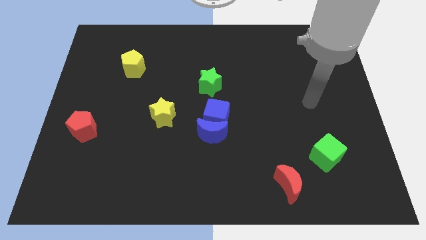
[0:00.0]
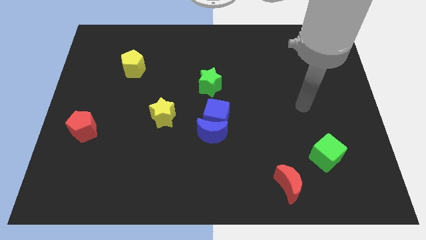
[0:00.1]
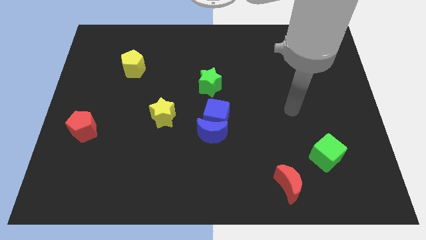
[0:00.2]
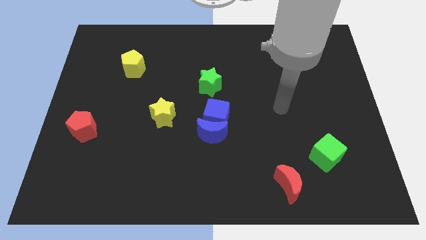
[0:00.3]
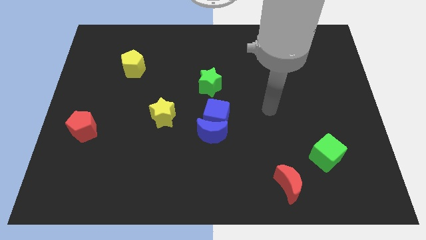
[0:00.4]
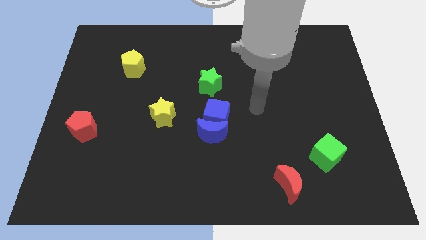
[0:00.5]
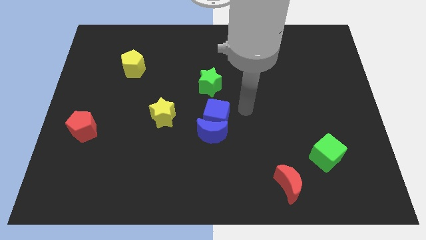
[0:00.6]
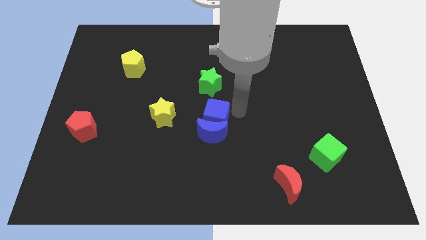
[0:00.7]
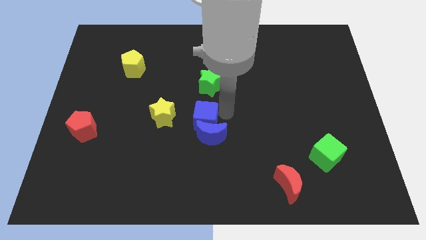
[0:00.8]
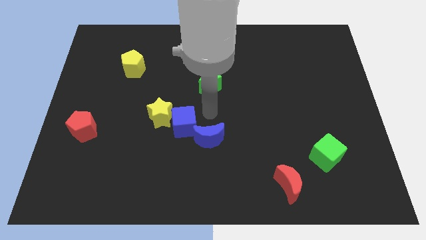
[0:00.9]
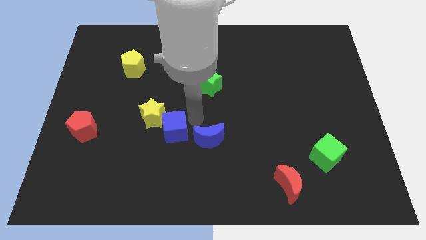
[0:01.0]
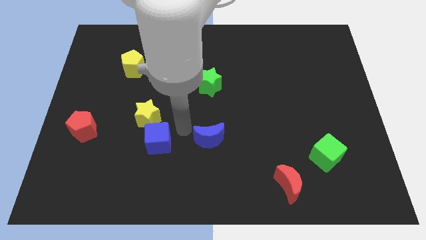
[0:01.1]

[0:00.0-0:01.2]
move the blue moon away from the blue cube

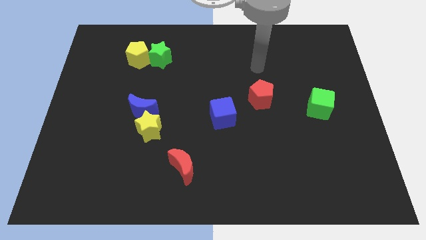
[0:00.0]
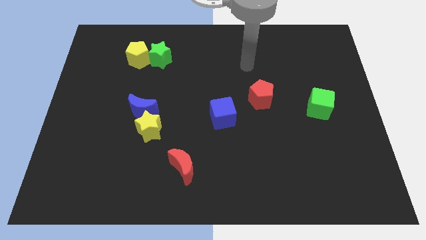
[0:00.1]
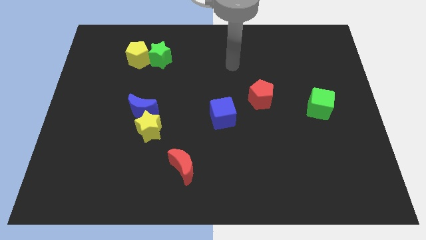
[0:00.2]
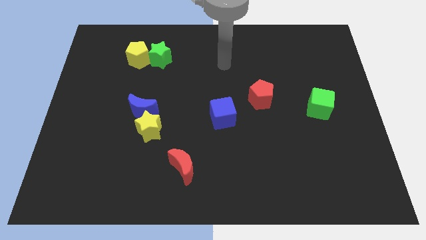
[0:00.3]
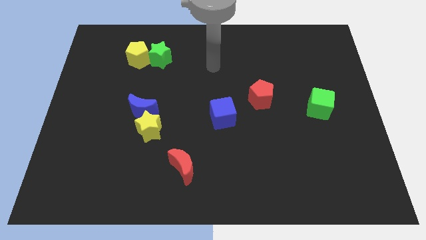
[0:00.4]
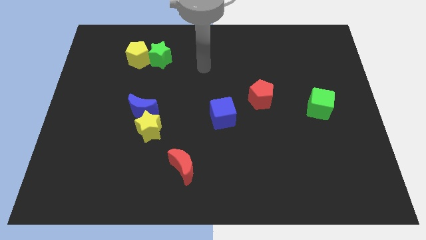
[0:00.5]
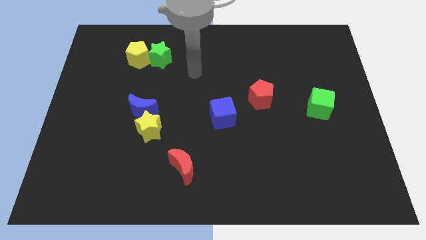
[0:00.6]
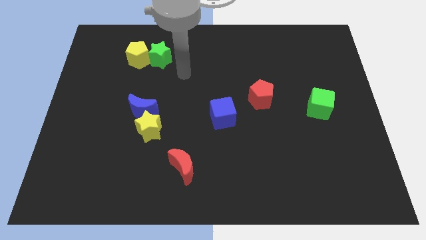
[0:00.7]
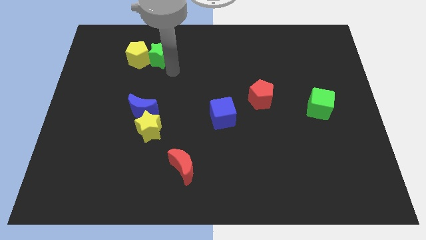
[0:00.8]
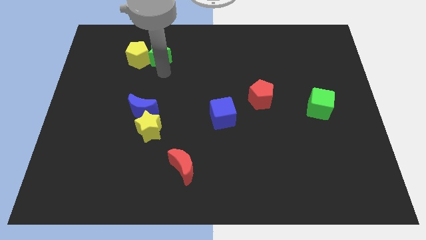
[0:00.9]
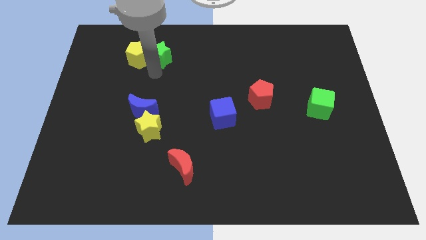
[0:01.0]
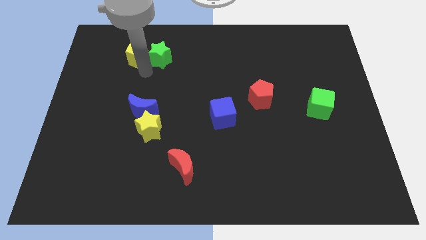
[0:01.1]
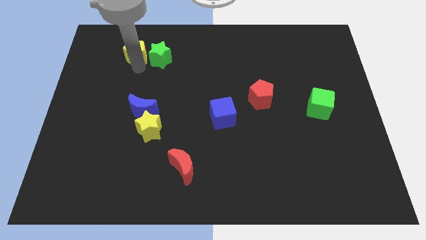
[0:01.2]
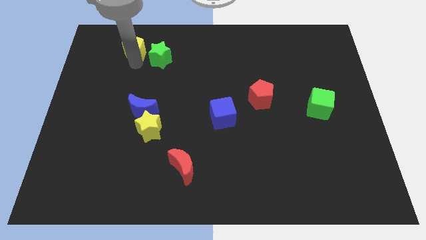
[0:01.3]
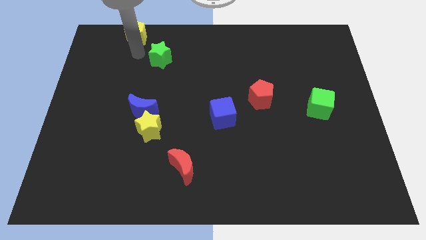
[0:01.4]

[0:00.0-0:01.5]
separate the green star from the yellow pentagon

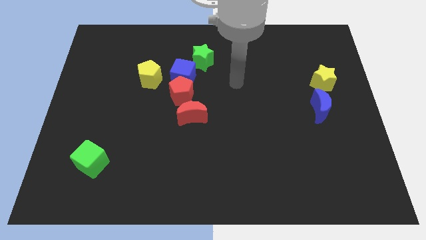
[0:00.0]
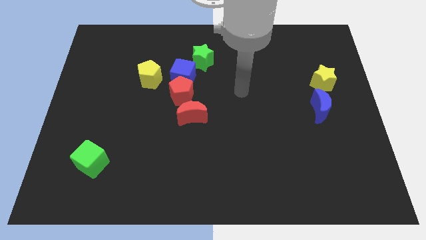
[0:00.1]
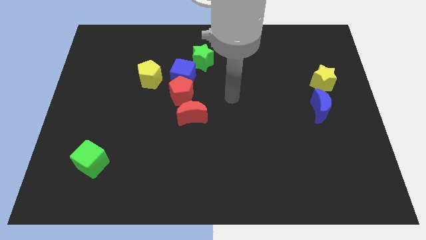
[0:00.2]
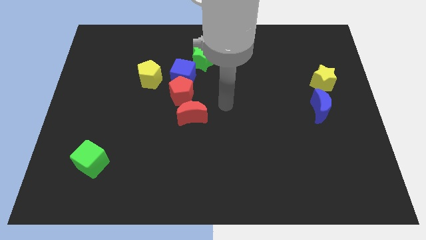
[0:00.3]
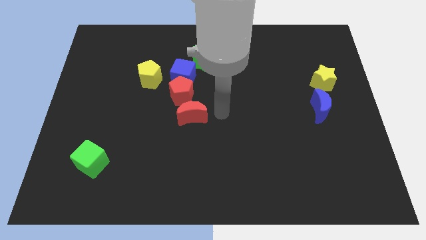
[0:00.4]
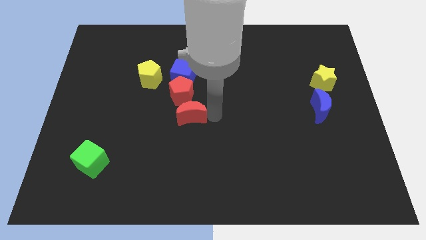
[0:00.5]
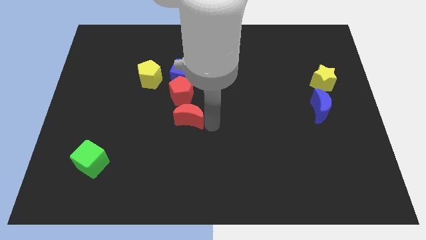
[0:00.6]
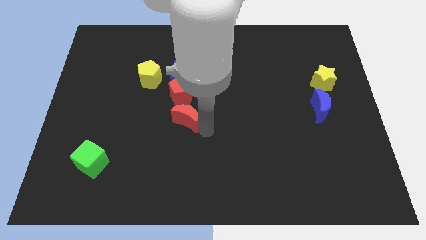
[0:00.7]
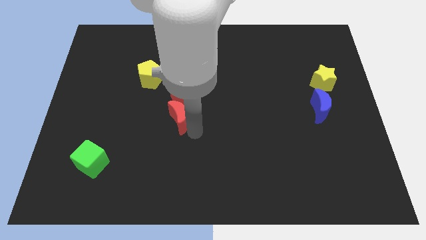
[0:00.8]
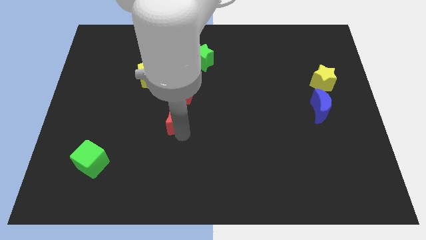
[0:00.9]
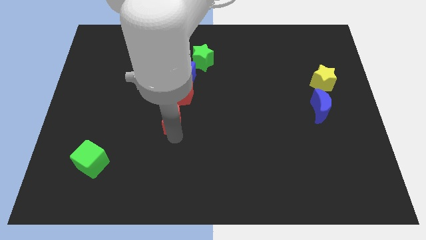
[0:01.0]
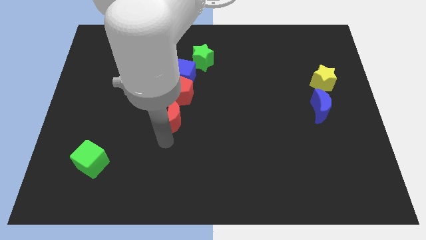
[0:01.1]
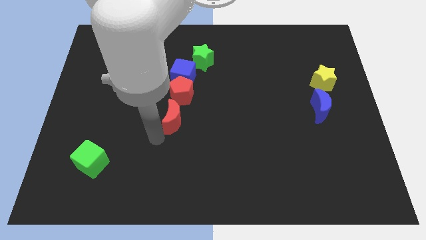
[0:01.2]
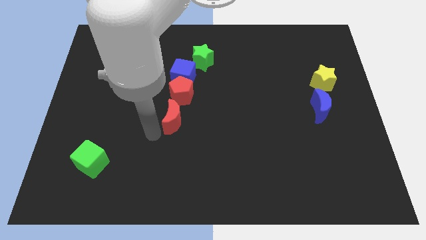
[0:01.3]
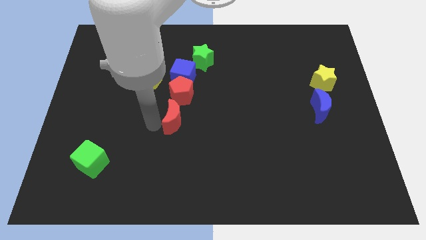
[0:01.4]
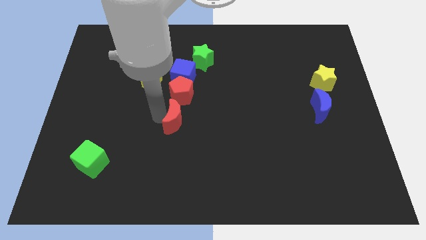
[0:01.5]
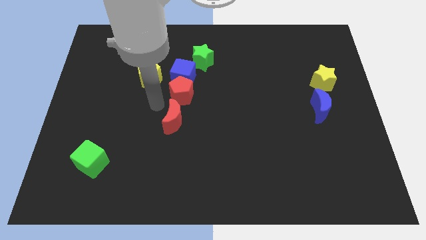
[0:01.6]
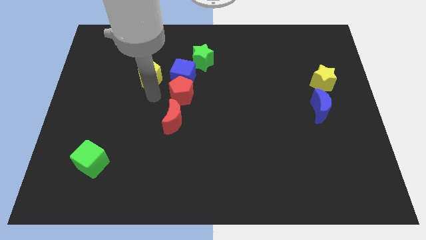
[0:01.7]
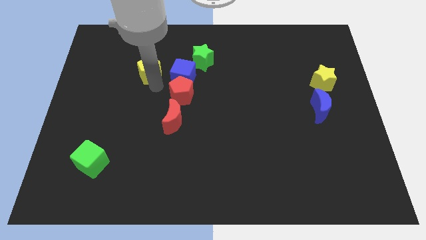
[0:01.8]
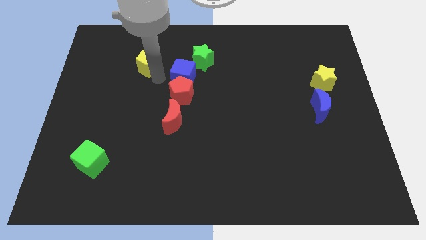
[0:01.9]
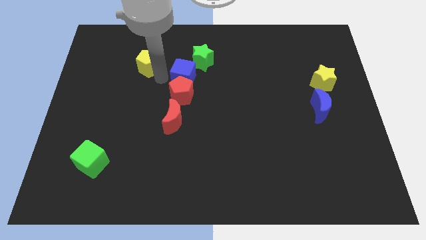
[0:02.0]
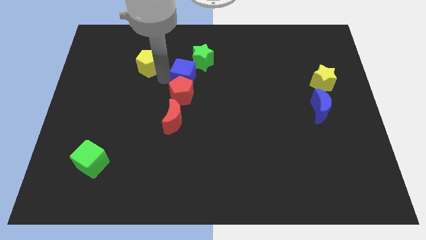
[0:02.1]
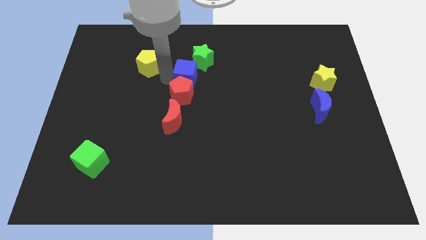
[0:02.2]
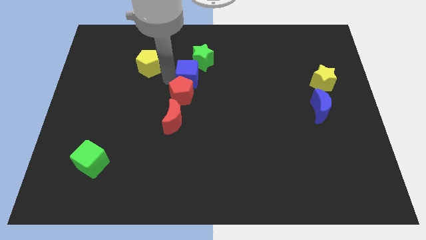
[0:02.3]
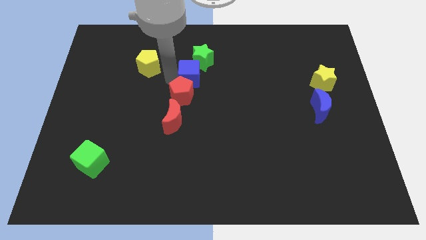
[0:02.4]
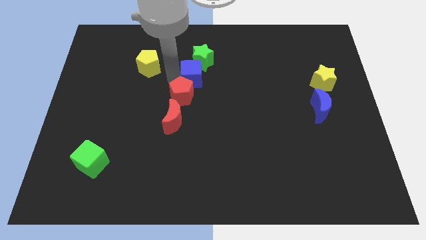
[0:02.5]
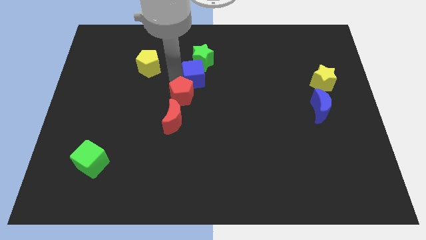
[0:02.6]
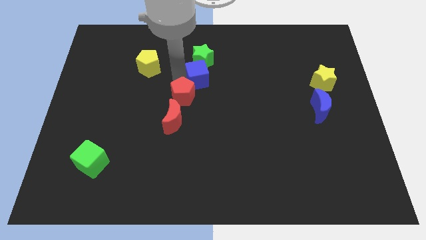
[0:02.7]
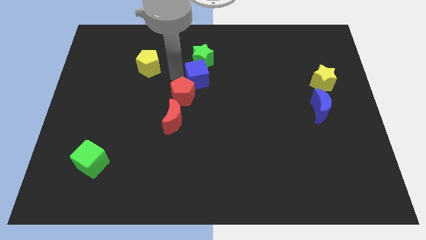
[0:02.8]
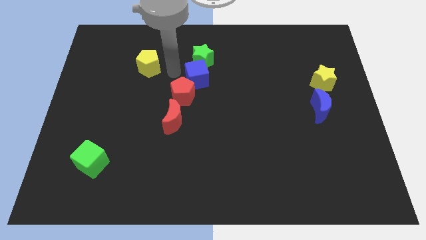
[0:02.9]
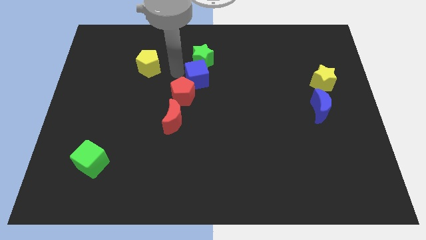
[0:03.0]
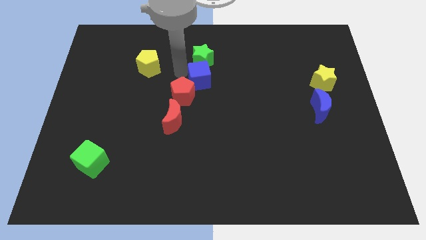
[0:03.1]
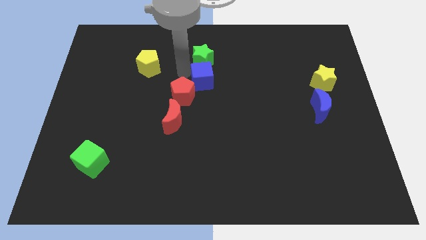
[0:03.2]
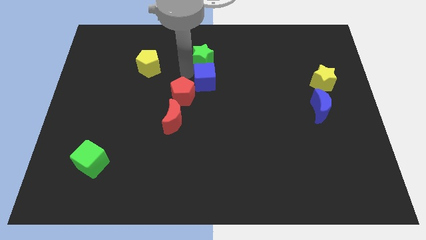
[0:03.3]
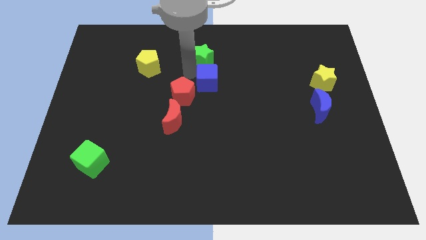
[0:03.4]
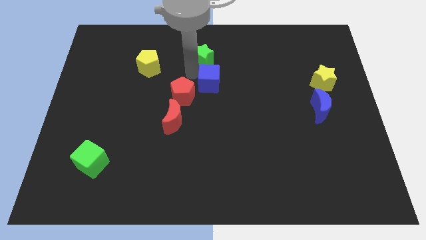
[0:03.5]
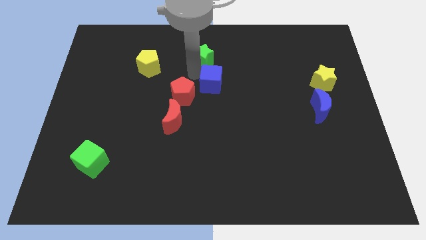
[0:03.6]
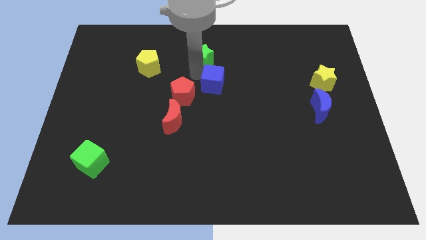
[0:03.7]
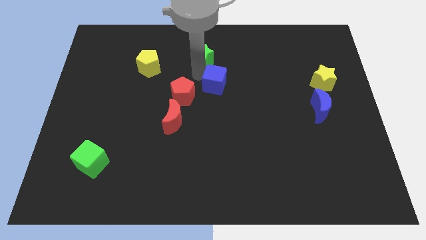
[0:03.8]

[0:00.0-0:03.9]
separate the blue cube from the group of blocks

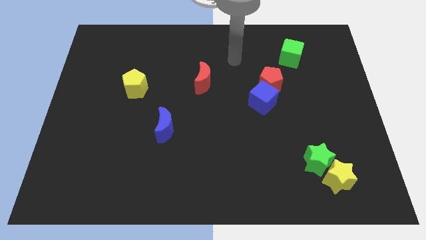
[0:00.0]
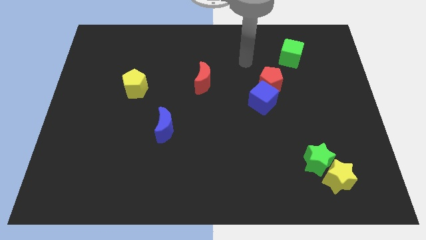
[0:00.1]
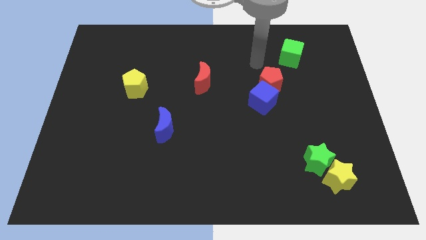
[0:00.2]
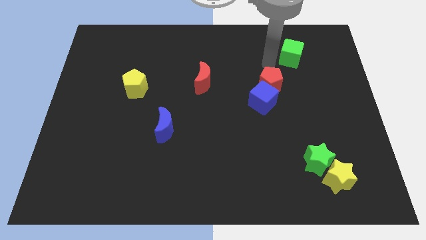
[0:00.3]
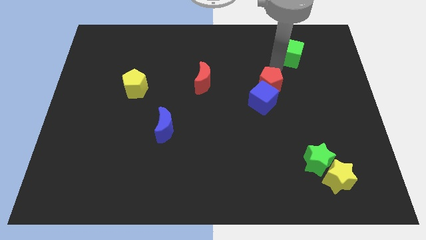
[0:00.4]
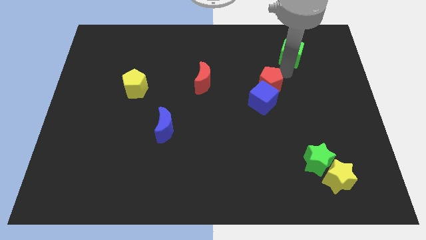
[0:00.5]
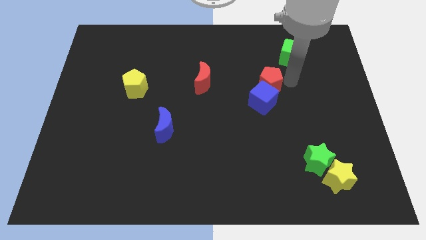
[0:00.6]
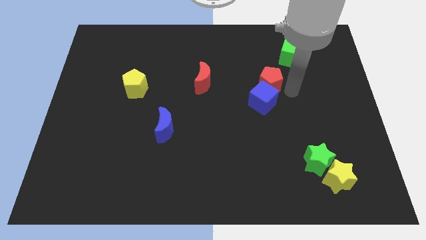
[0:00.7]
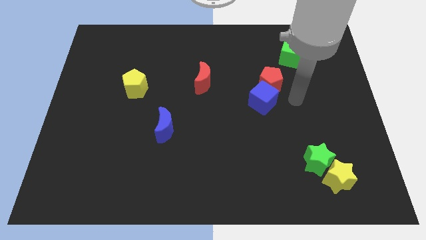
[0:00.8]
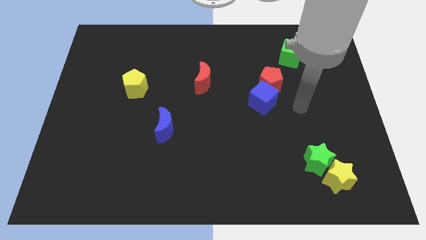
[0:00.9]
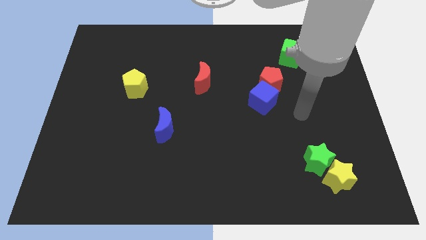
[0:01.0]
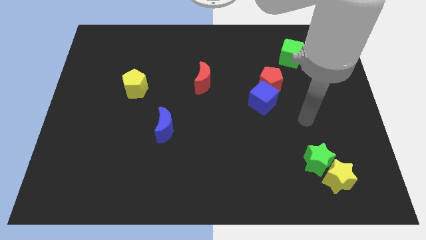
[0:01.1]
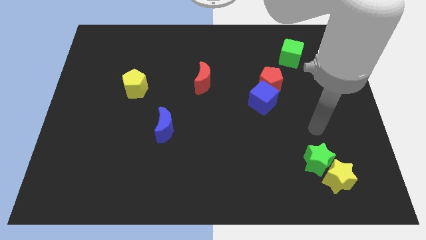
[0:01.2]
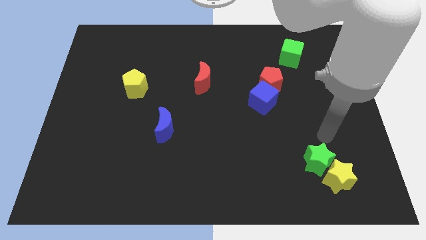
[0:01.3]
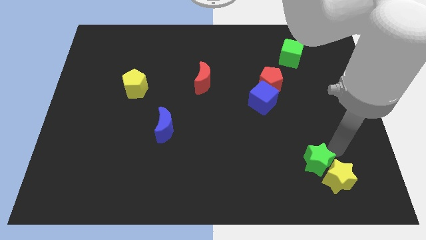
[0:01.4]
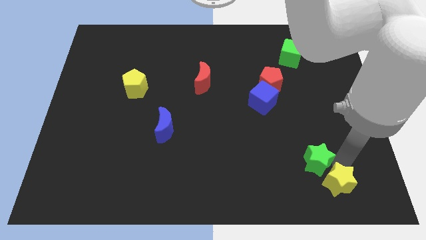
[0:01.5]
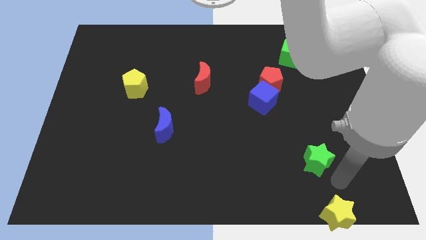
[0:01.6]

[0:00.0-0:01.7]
move the green star away from the yellow star

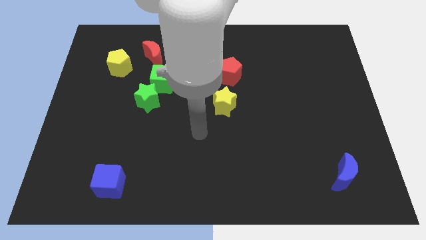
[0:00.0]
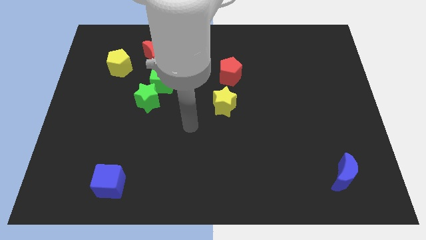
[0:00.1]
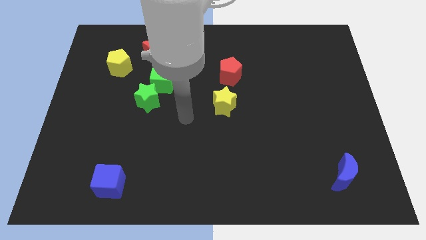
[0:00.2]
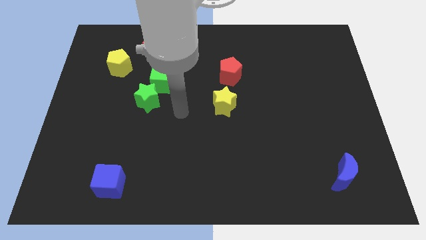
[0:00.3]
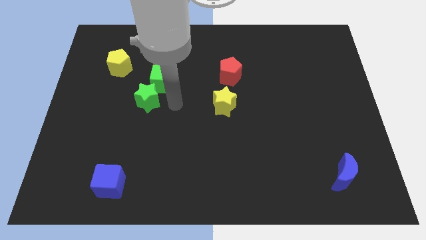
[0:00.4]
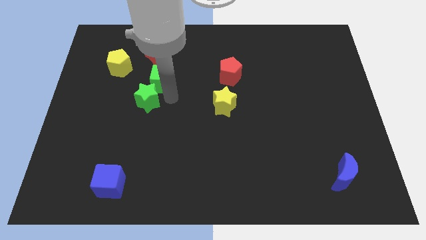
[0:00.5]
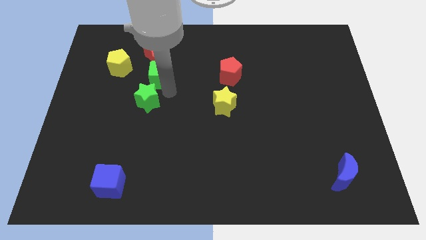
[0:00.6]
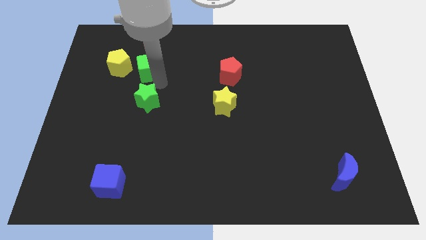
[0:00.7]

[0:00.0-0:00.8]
move the green star away from the green cube

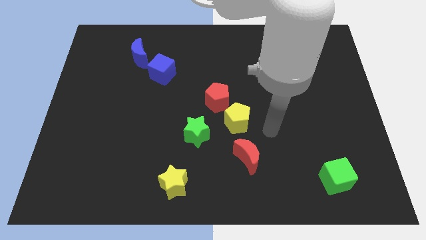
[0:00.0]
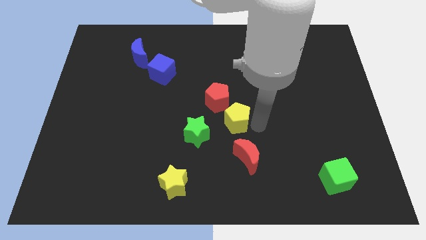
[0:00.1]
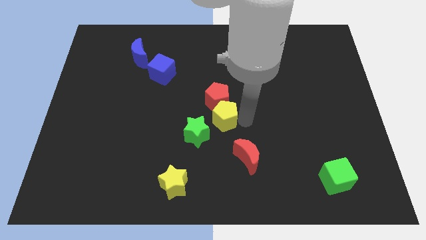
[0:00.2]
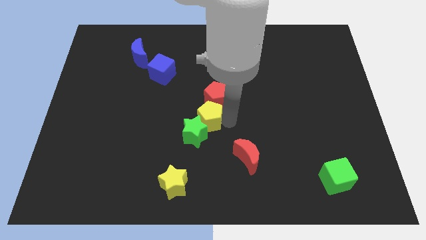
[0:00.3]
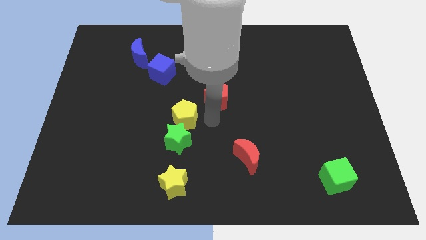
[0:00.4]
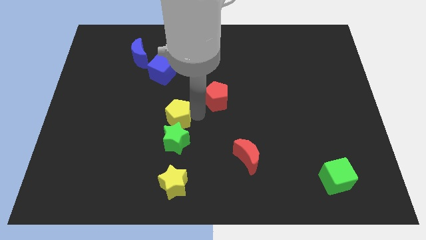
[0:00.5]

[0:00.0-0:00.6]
move the red pentagon away from the yellow pentagon
